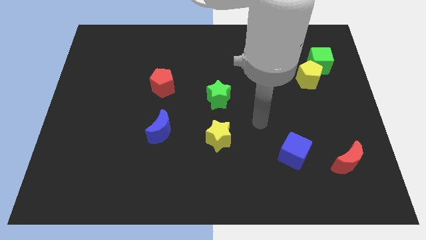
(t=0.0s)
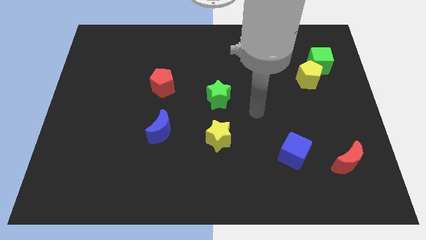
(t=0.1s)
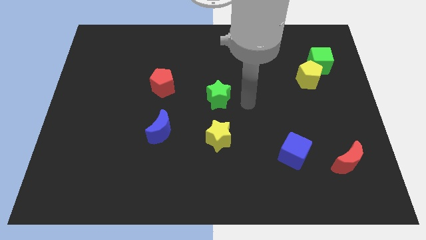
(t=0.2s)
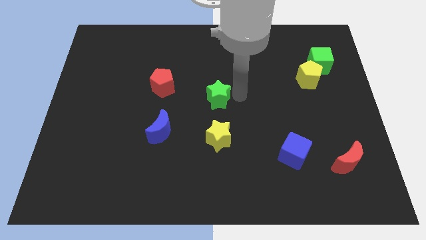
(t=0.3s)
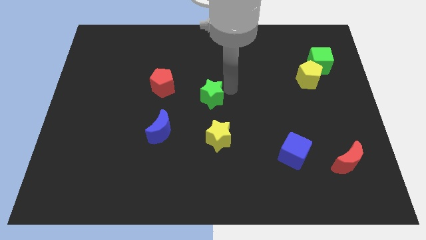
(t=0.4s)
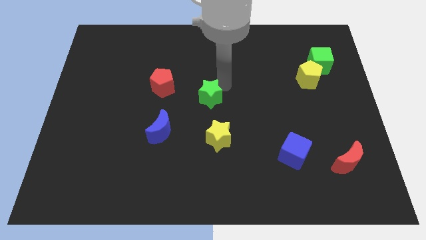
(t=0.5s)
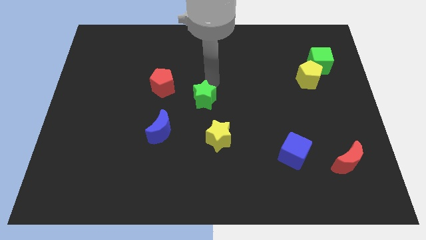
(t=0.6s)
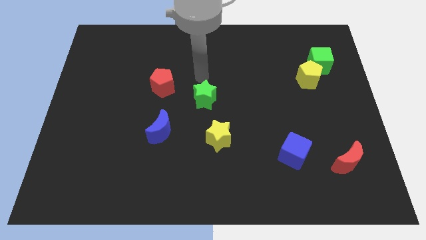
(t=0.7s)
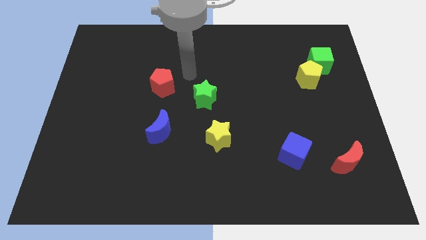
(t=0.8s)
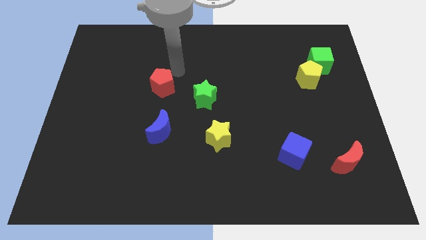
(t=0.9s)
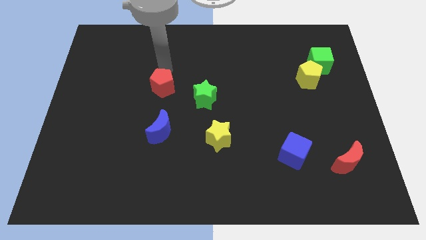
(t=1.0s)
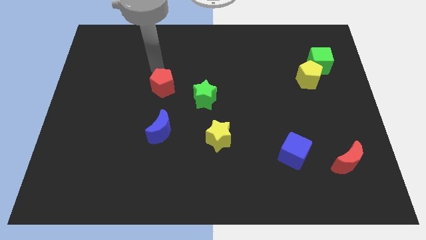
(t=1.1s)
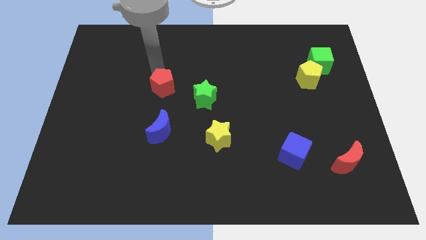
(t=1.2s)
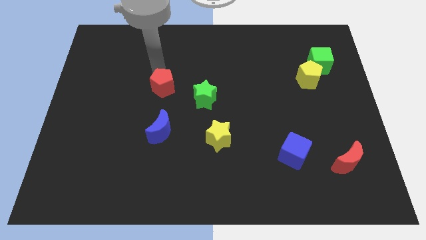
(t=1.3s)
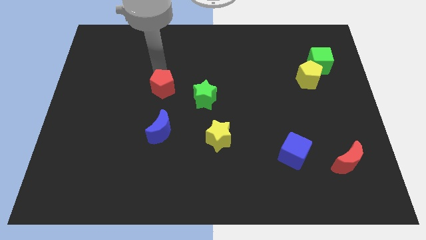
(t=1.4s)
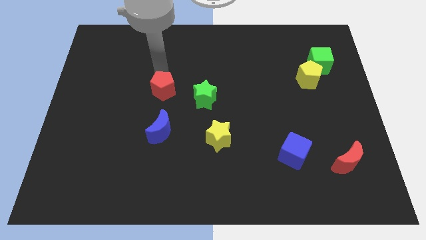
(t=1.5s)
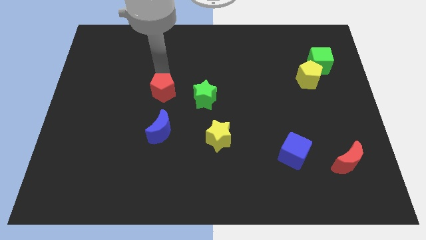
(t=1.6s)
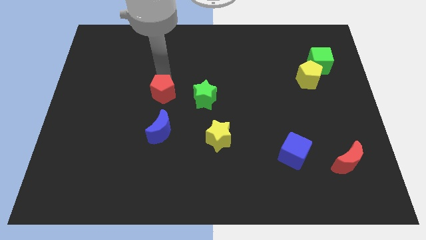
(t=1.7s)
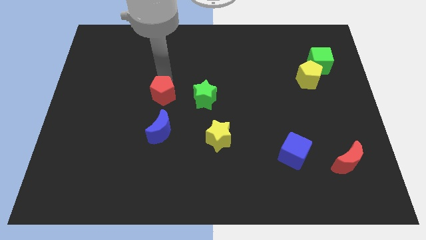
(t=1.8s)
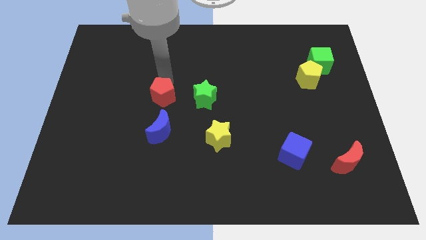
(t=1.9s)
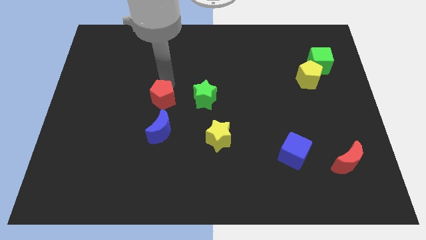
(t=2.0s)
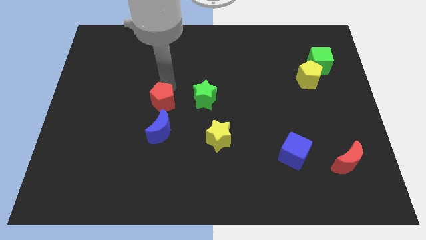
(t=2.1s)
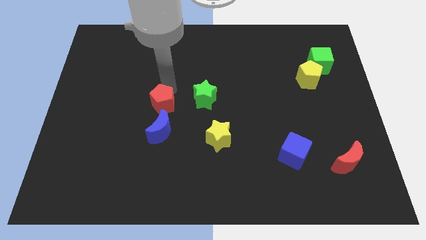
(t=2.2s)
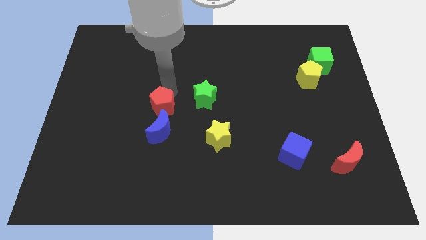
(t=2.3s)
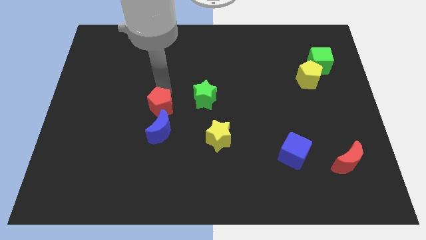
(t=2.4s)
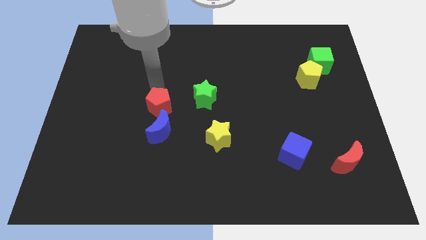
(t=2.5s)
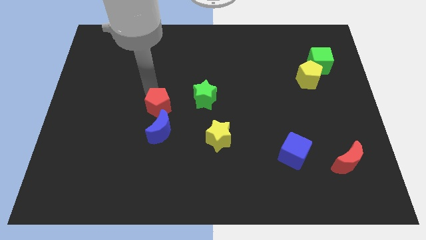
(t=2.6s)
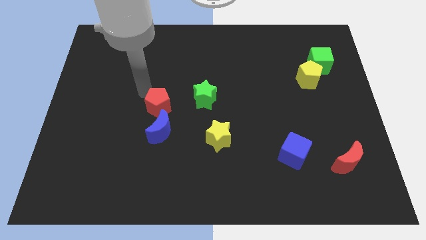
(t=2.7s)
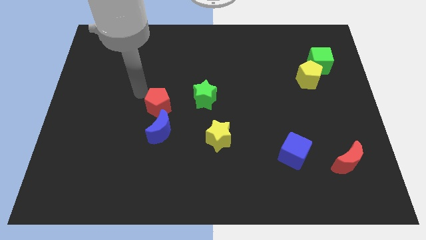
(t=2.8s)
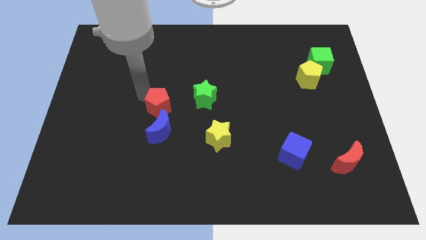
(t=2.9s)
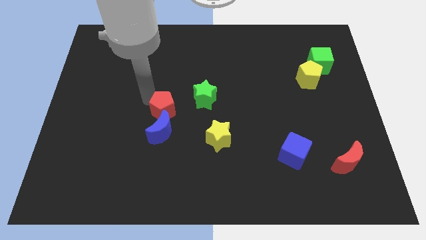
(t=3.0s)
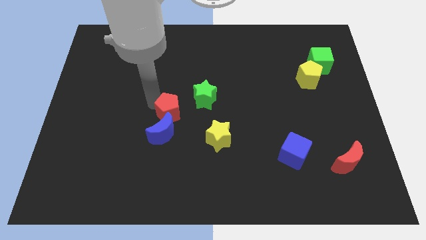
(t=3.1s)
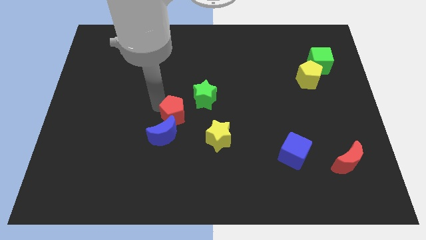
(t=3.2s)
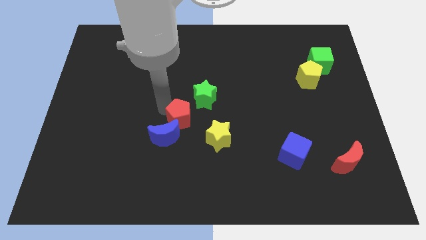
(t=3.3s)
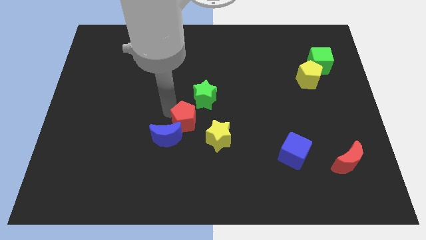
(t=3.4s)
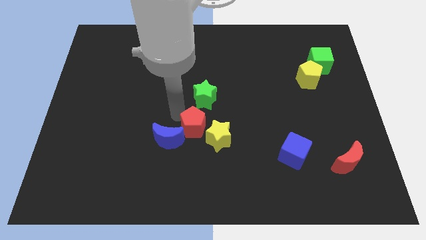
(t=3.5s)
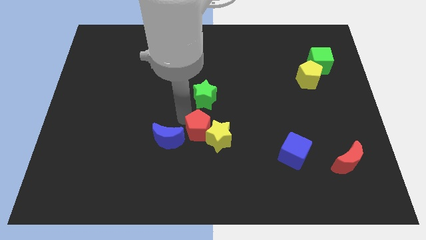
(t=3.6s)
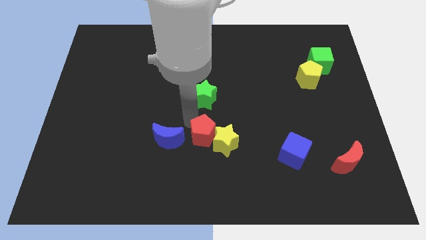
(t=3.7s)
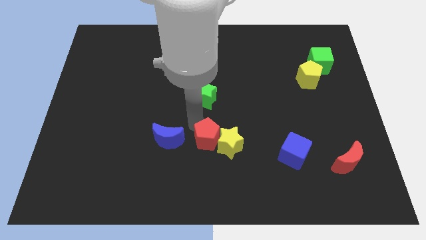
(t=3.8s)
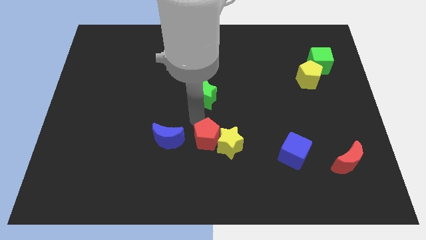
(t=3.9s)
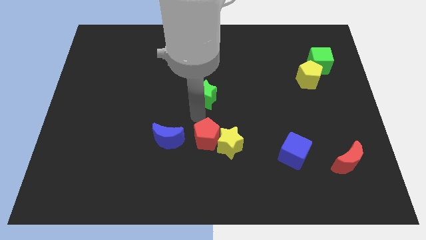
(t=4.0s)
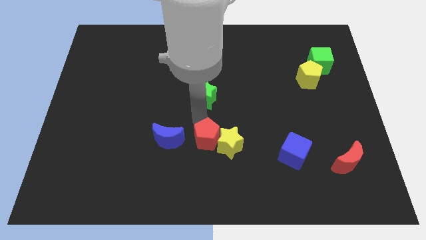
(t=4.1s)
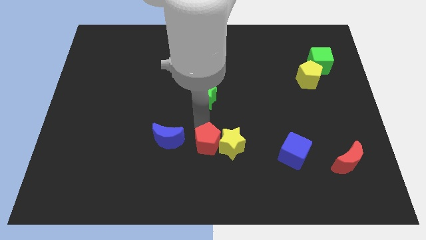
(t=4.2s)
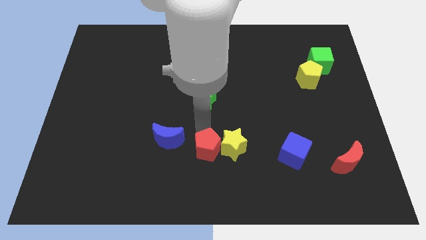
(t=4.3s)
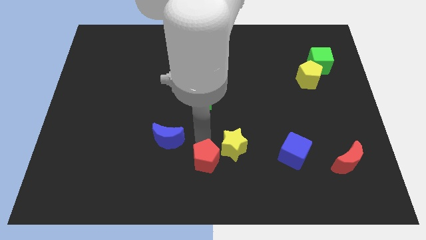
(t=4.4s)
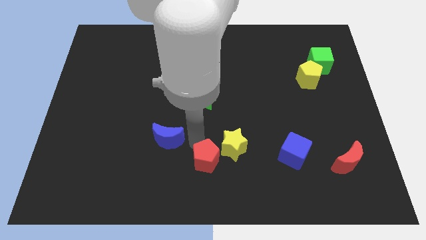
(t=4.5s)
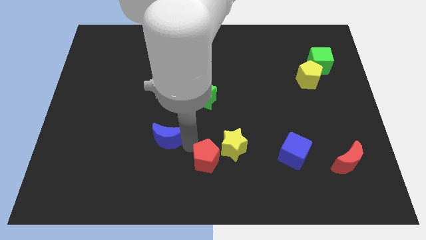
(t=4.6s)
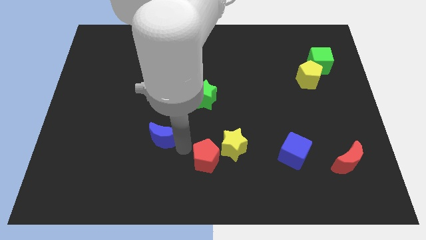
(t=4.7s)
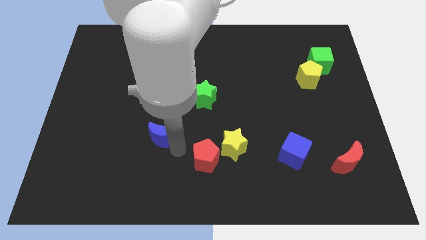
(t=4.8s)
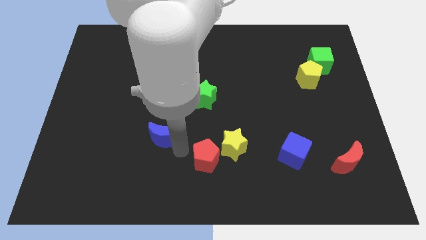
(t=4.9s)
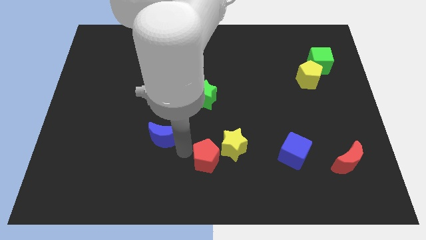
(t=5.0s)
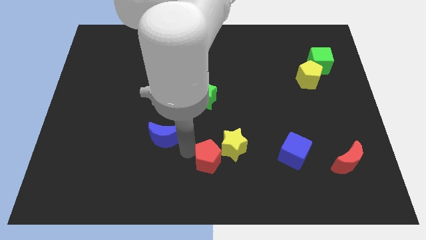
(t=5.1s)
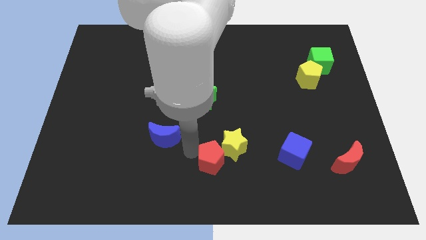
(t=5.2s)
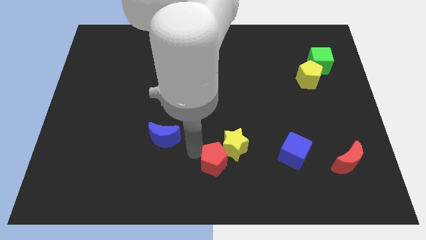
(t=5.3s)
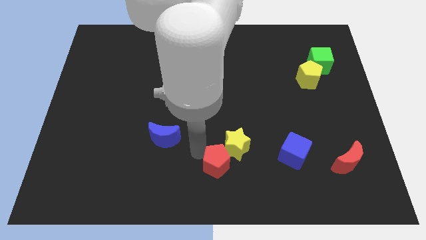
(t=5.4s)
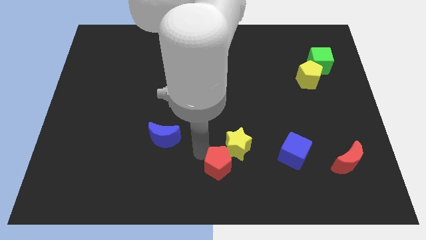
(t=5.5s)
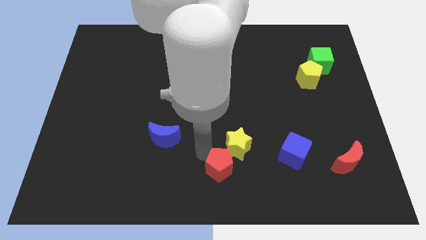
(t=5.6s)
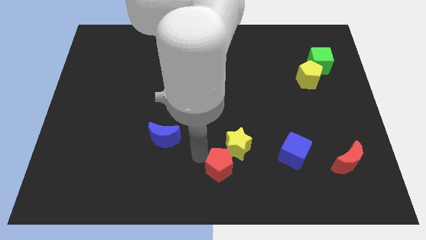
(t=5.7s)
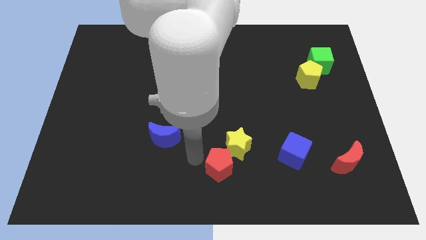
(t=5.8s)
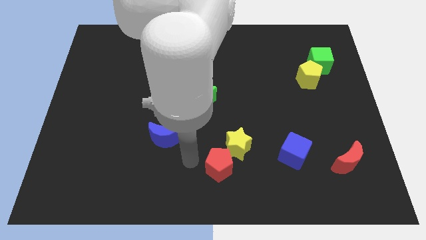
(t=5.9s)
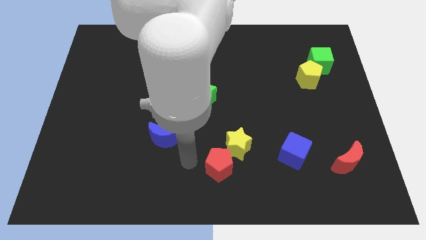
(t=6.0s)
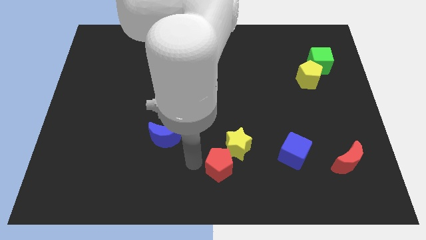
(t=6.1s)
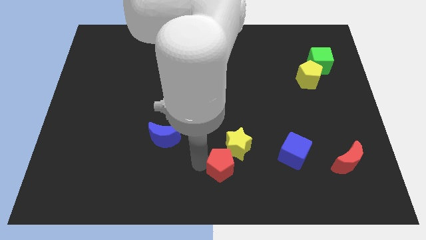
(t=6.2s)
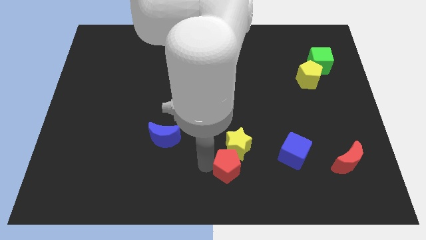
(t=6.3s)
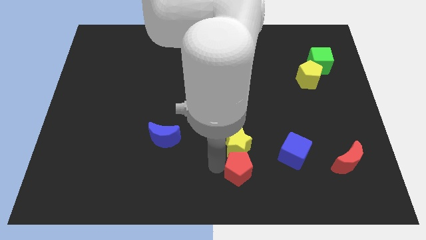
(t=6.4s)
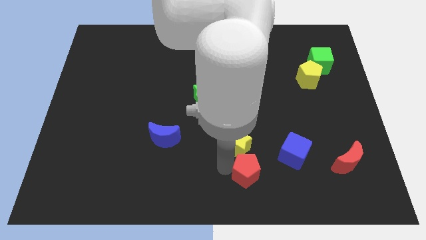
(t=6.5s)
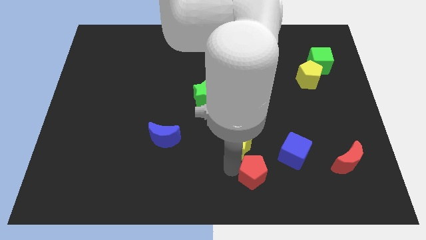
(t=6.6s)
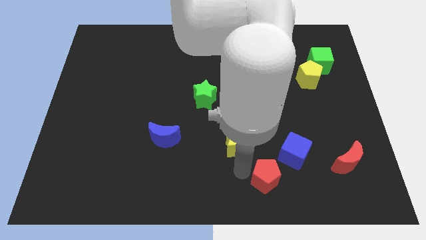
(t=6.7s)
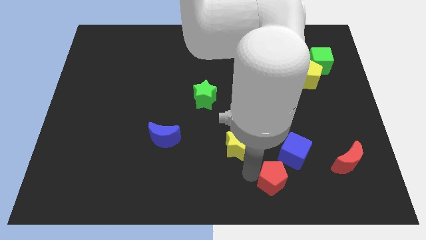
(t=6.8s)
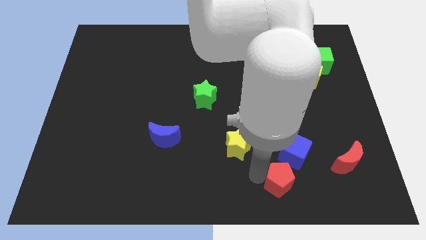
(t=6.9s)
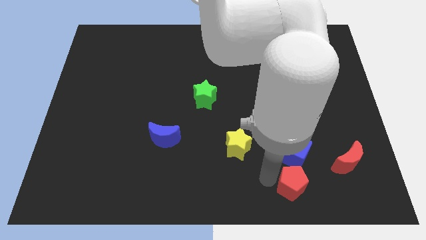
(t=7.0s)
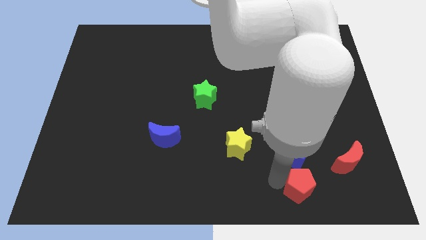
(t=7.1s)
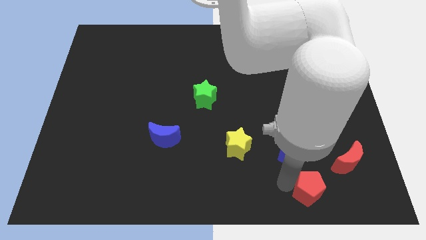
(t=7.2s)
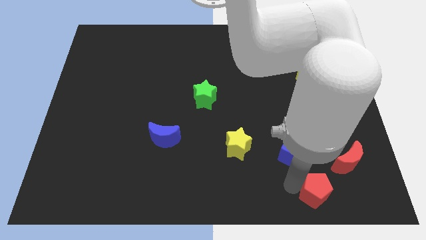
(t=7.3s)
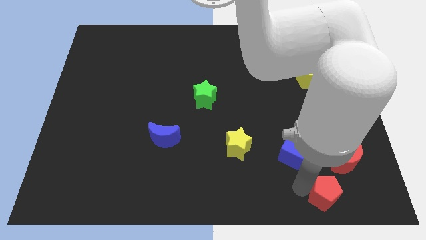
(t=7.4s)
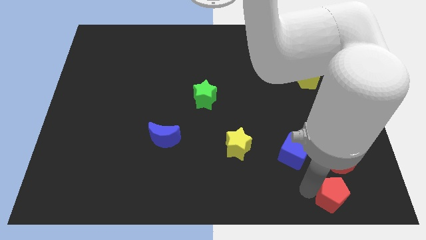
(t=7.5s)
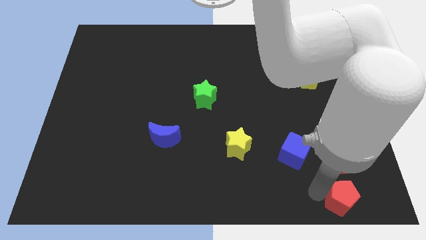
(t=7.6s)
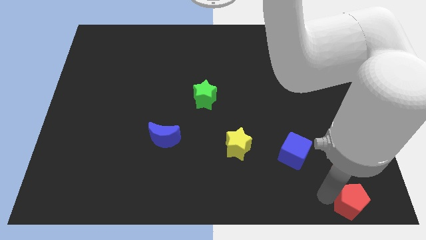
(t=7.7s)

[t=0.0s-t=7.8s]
slide the red pentagon to the bottom right
